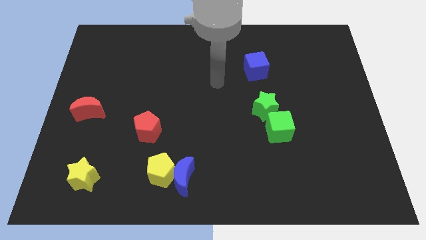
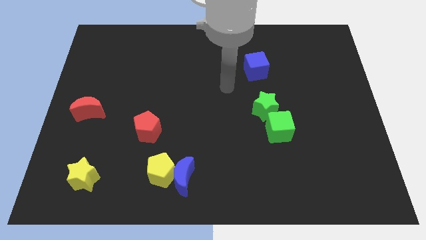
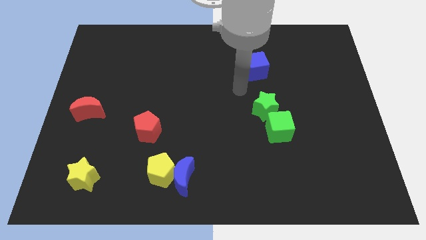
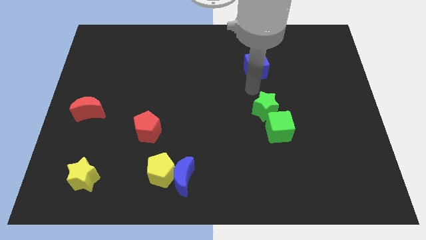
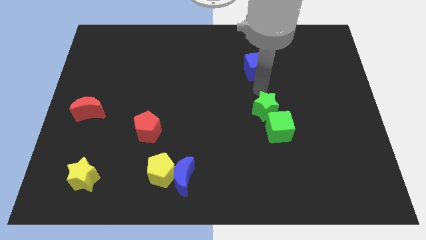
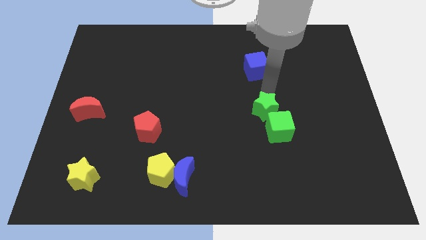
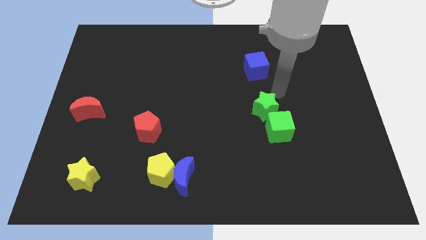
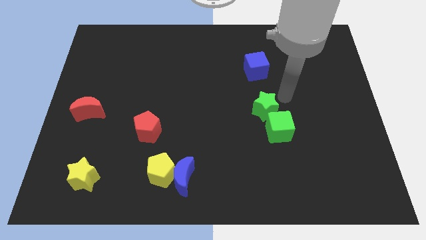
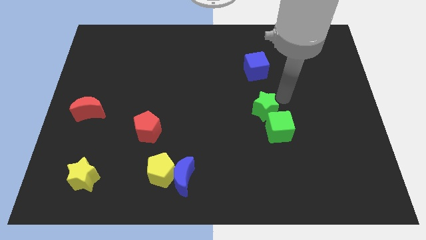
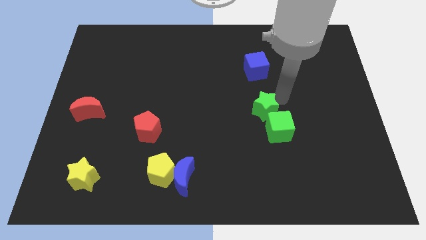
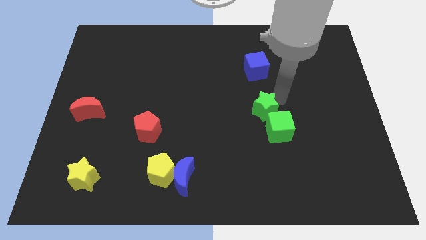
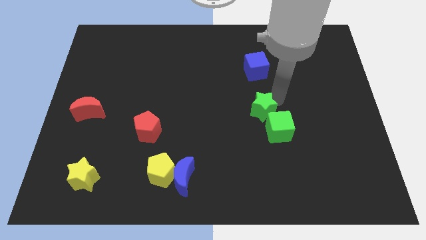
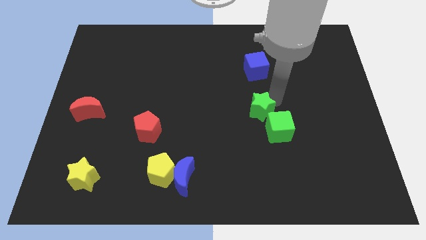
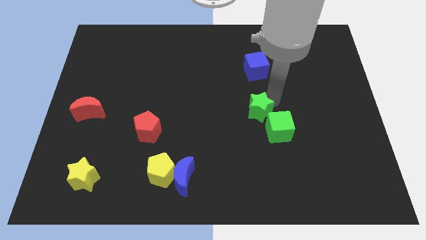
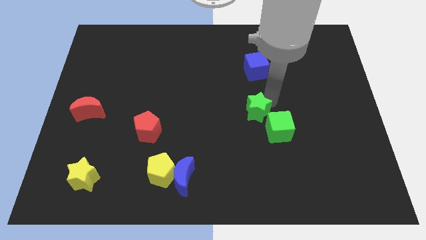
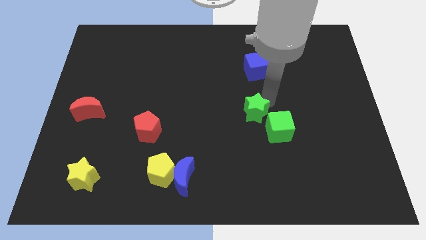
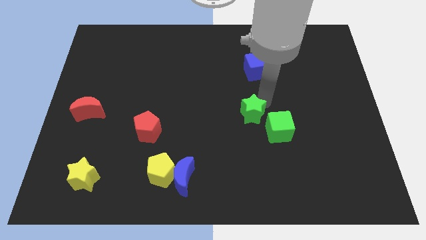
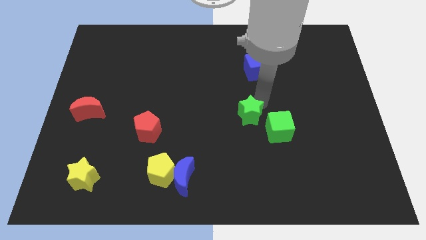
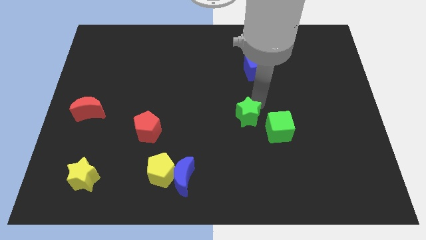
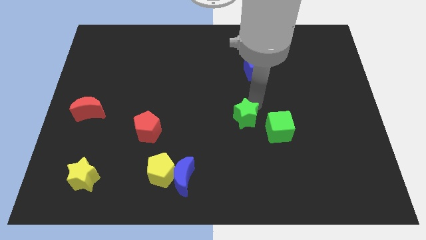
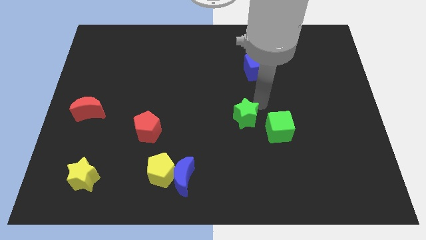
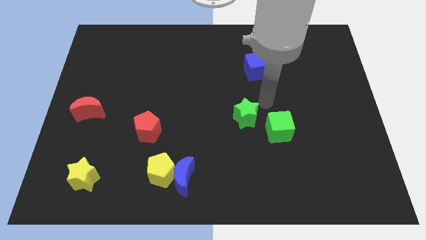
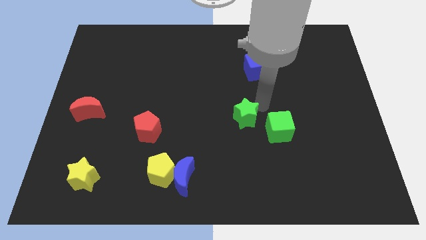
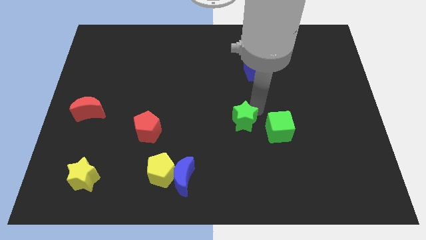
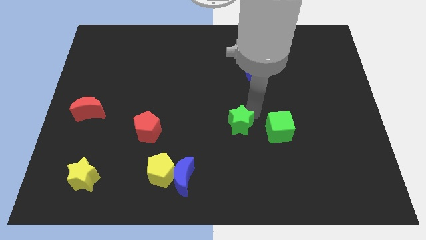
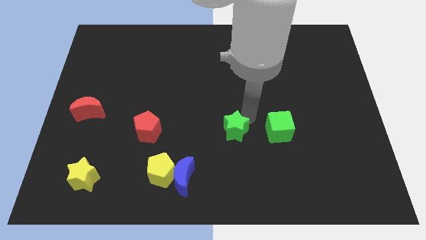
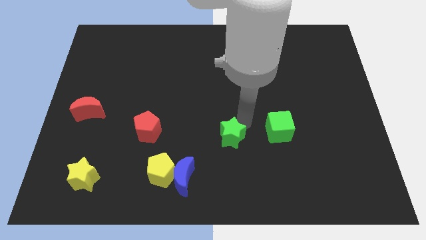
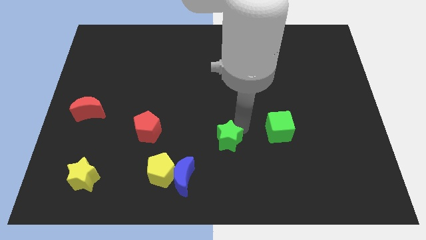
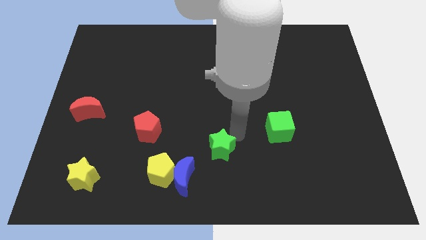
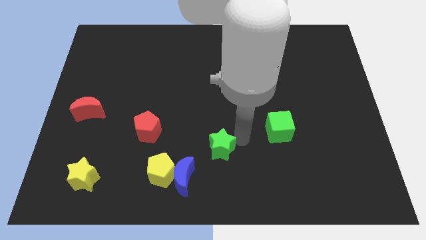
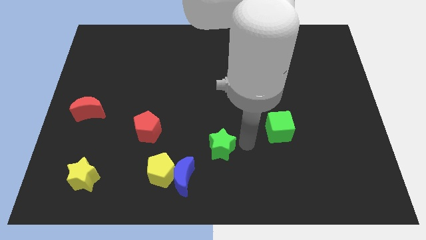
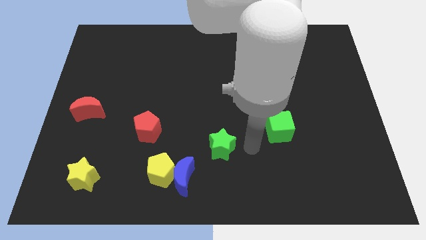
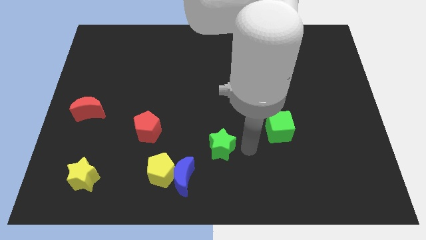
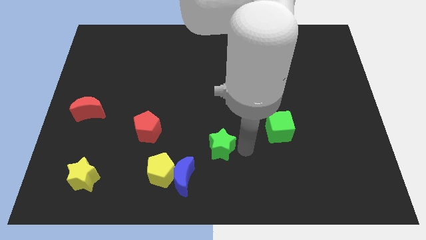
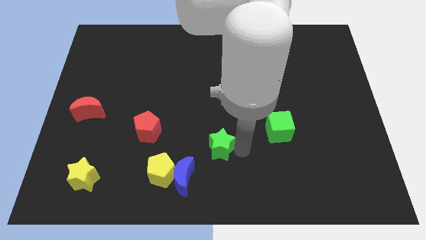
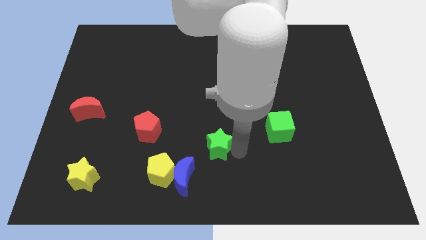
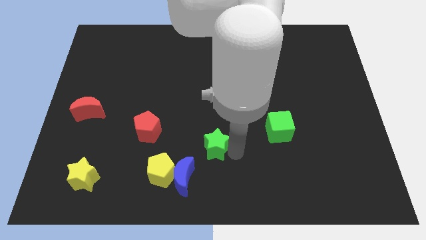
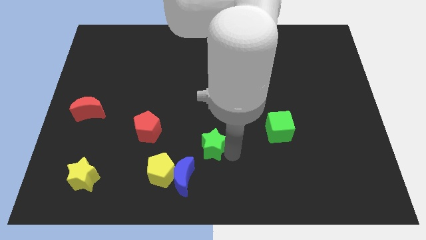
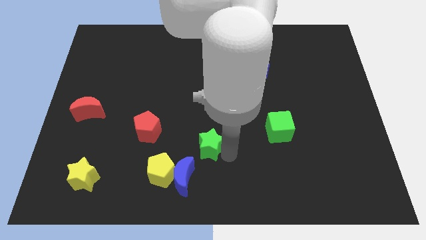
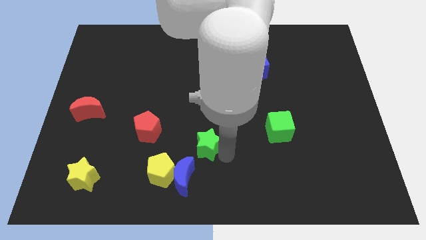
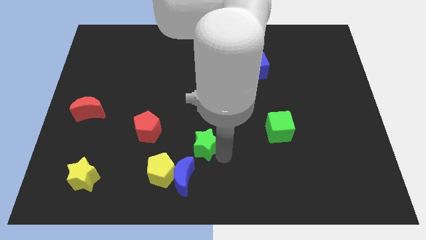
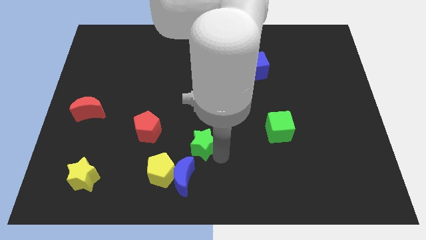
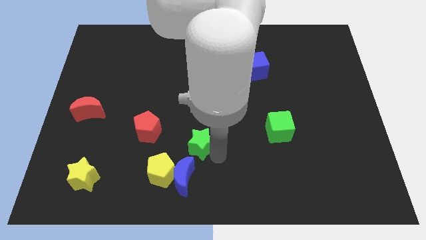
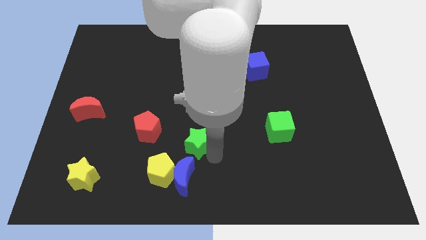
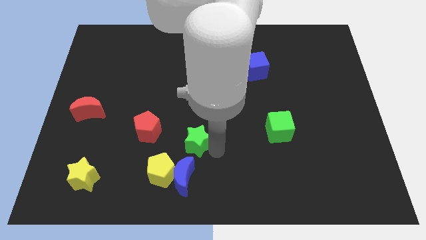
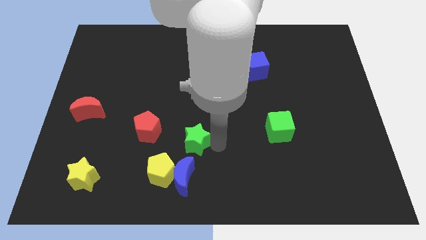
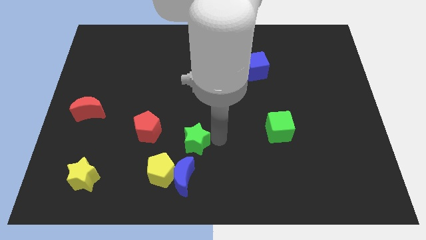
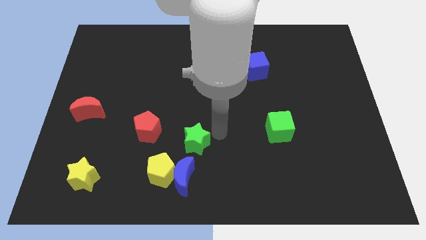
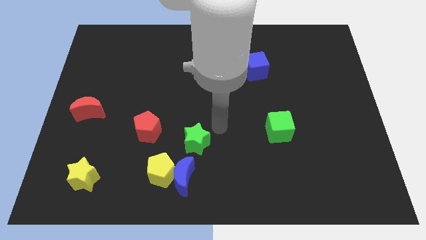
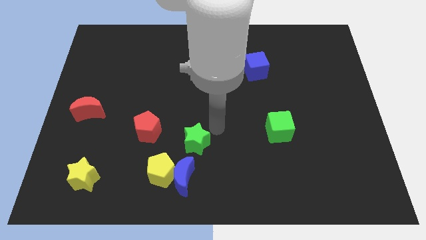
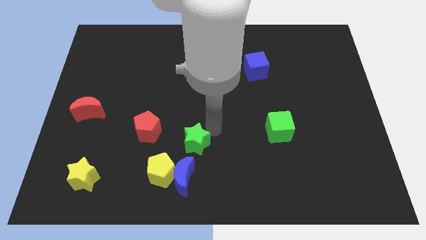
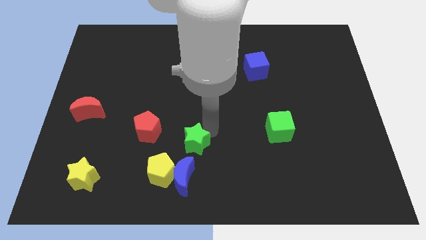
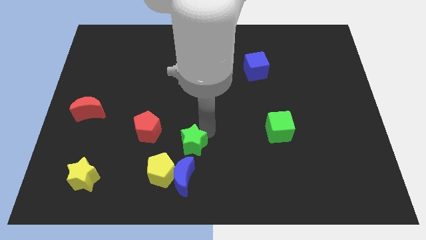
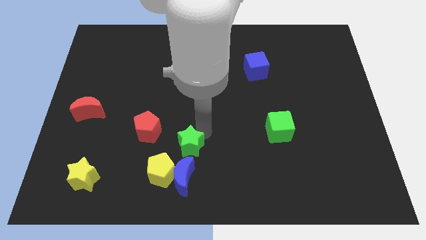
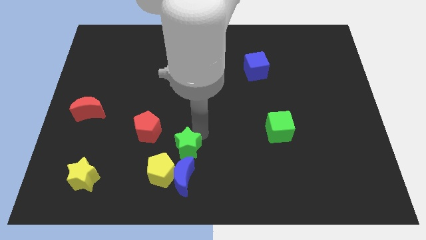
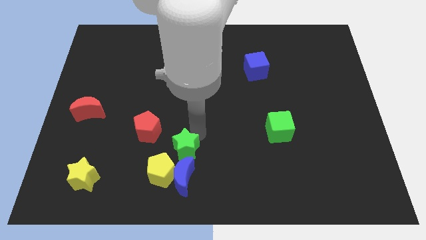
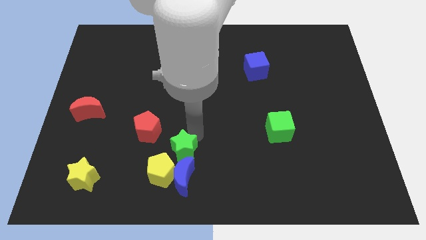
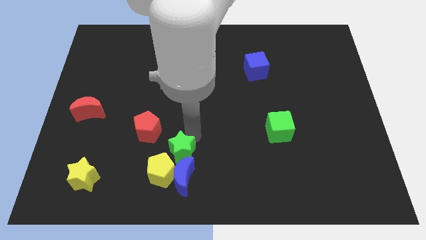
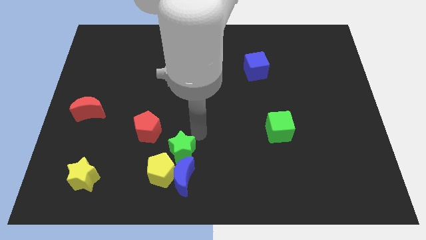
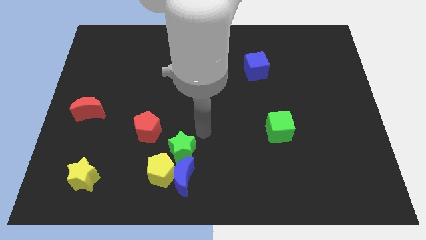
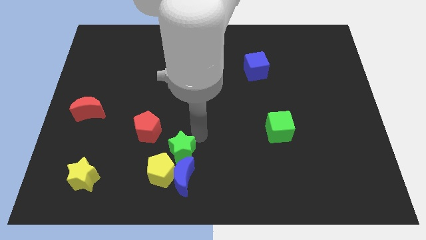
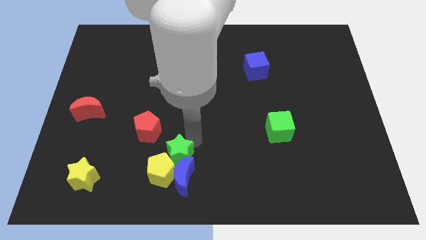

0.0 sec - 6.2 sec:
slide the green star close to the yellow pentagon

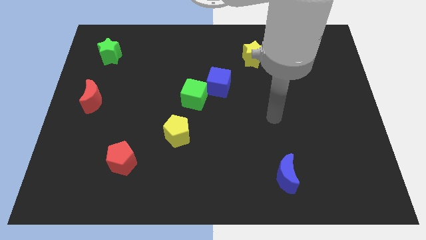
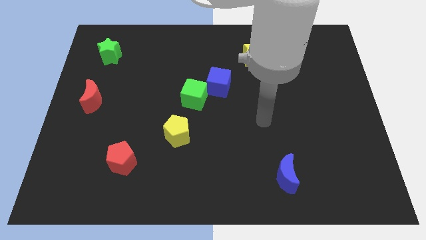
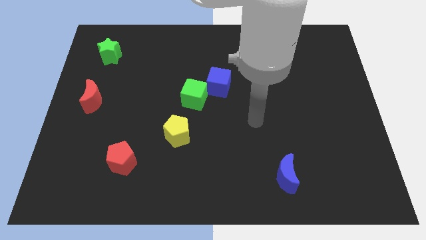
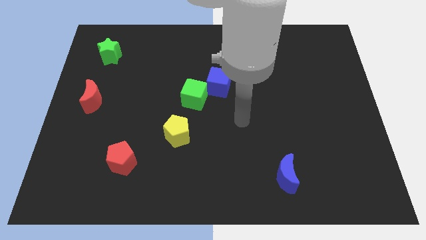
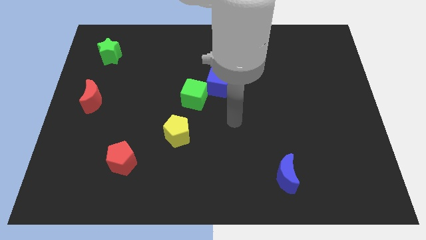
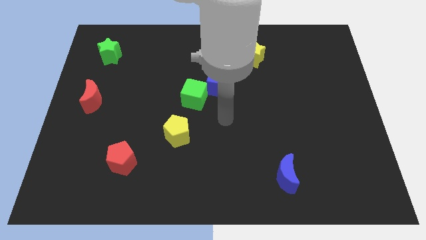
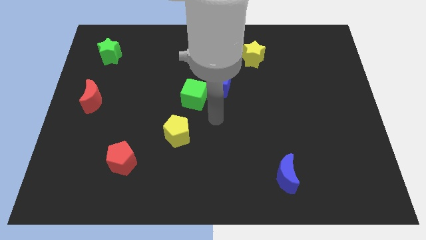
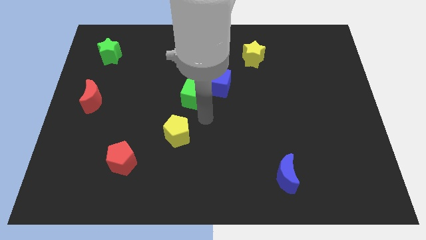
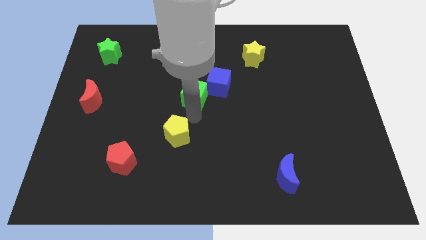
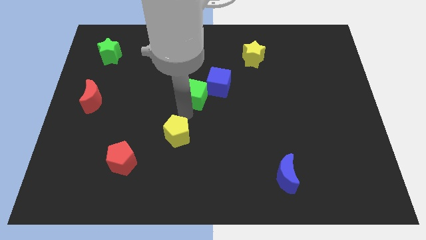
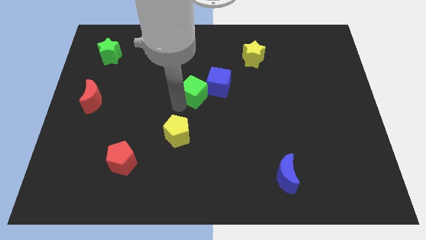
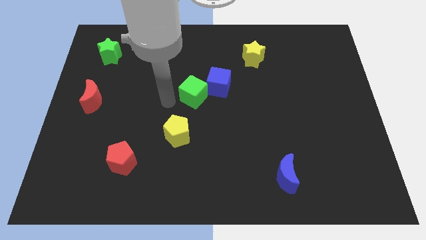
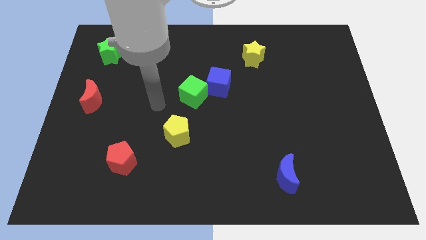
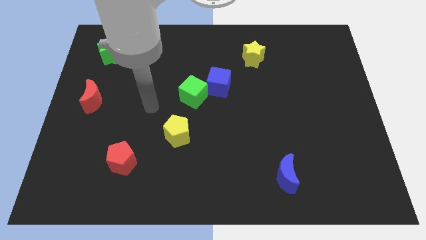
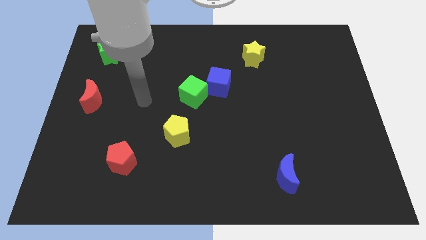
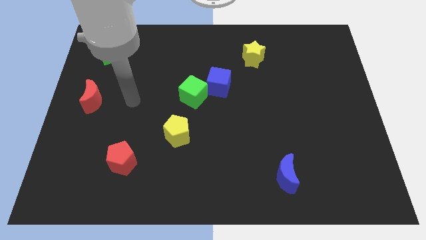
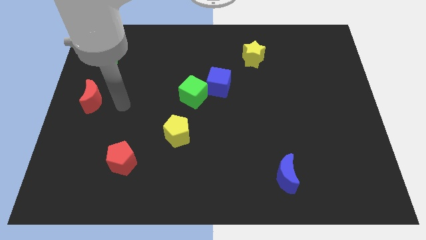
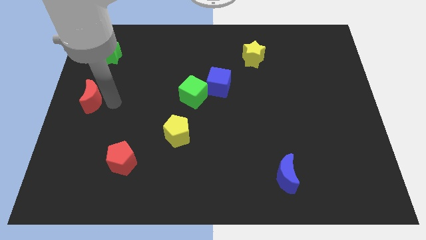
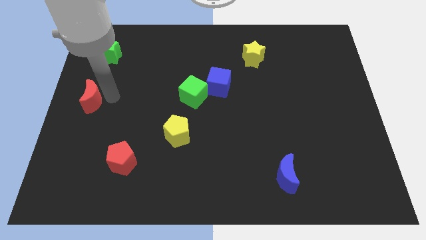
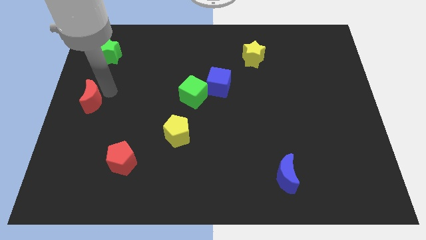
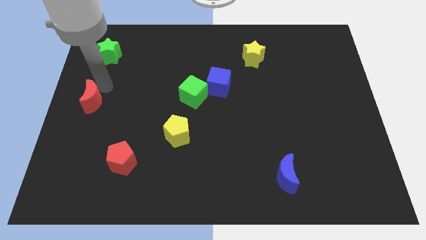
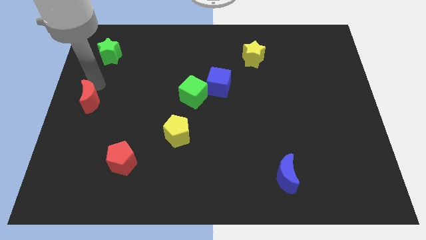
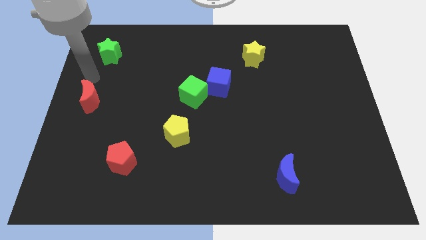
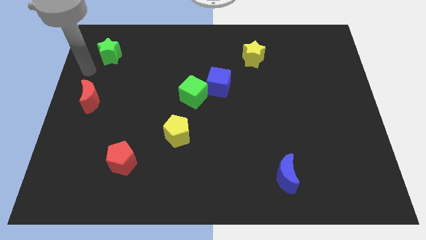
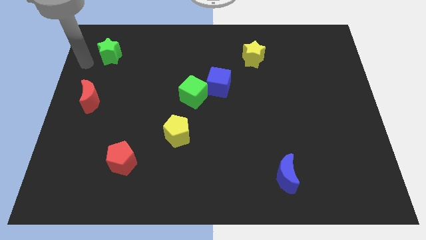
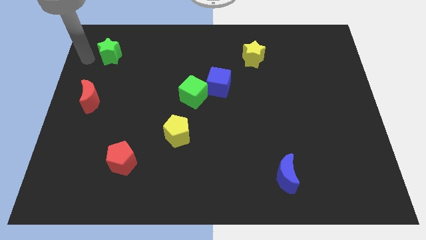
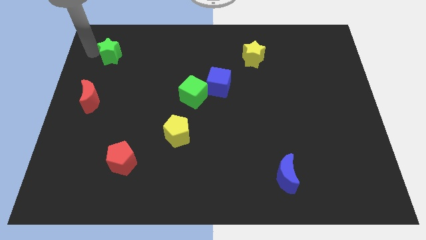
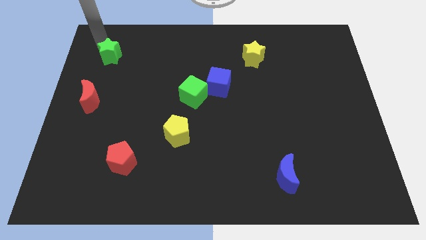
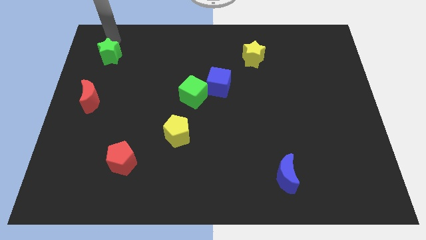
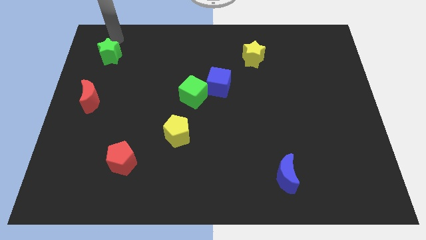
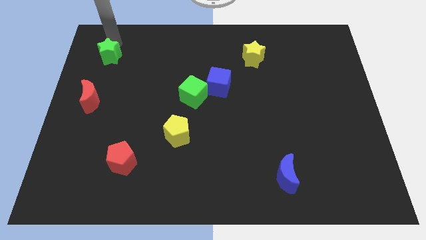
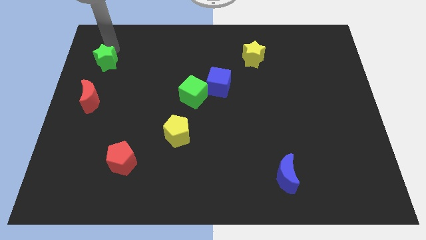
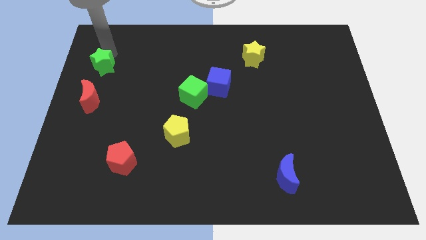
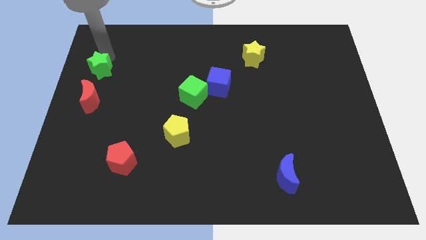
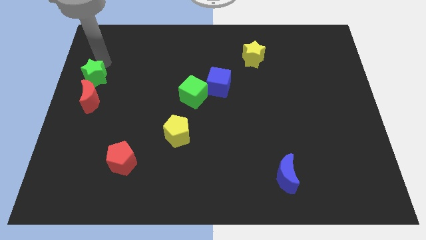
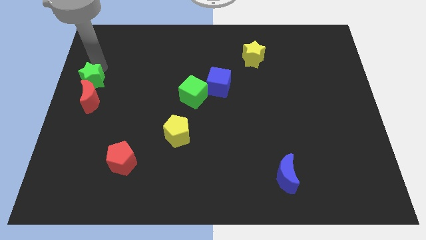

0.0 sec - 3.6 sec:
push the green star to the red moon
